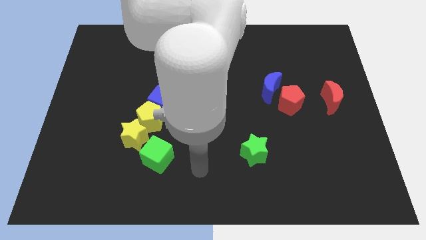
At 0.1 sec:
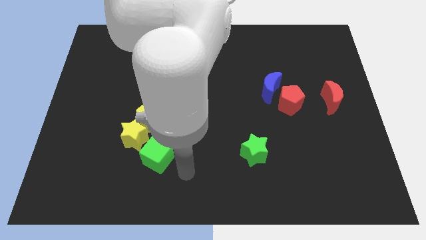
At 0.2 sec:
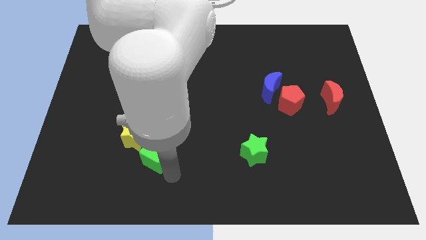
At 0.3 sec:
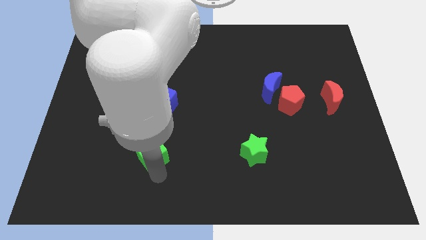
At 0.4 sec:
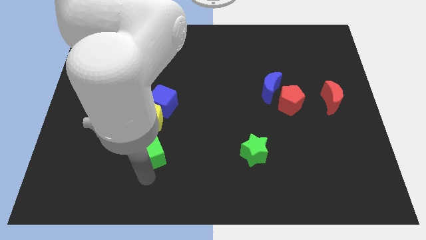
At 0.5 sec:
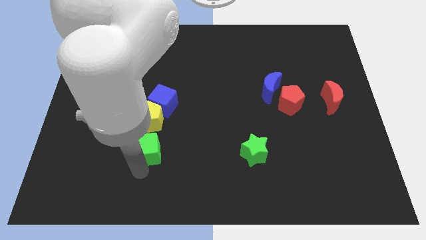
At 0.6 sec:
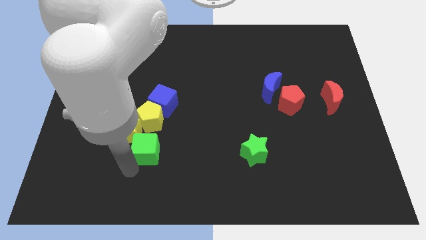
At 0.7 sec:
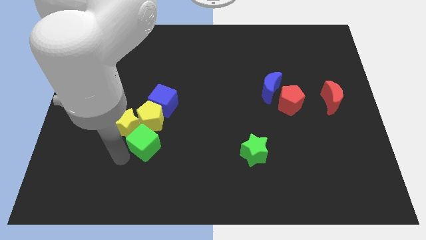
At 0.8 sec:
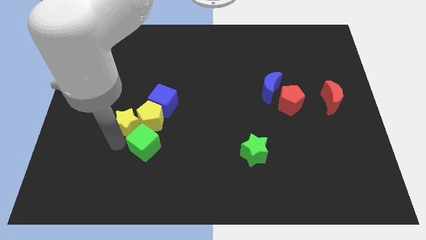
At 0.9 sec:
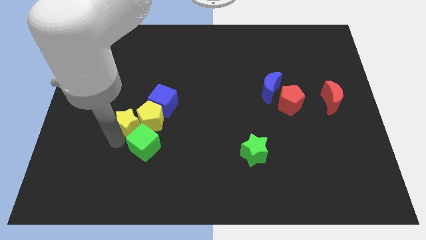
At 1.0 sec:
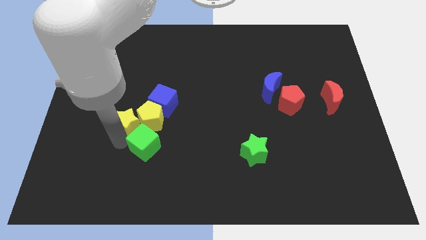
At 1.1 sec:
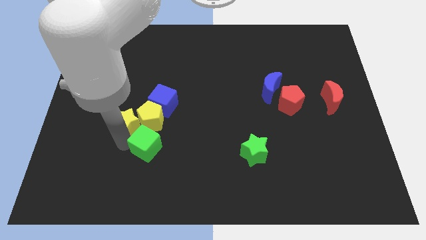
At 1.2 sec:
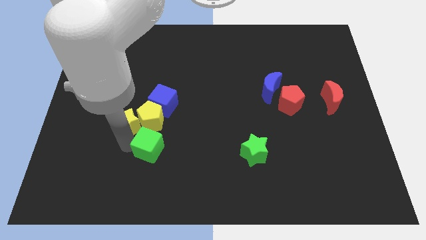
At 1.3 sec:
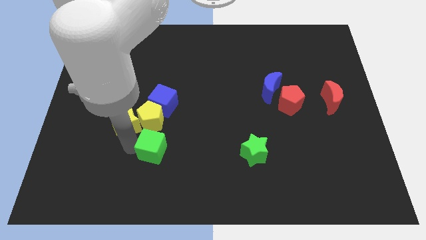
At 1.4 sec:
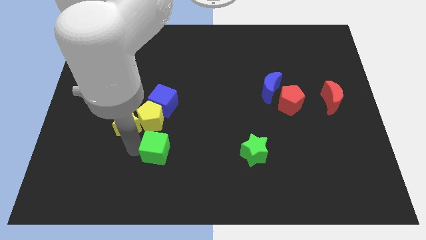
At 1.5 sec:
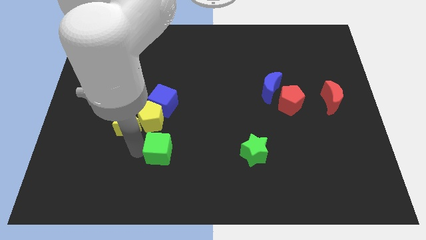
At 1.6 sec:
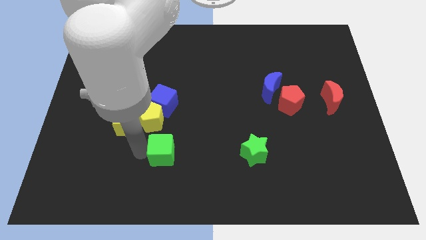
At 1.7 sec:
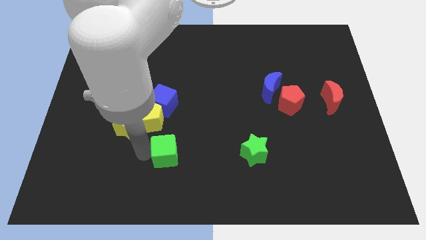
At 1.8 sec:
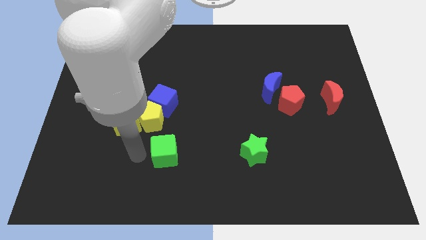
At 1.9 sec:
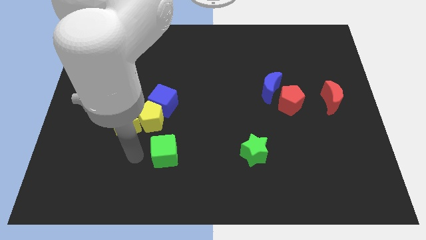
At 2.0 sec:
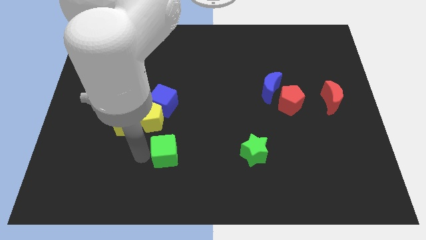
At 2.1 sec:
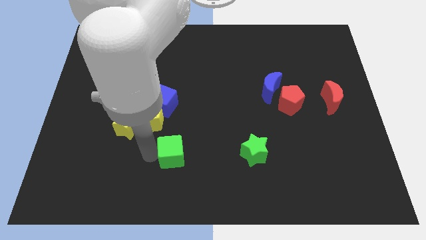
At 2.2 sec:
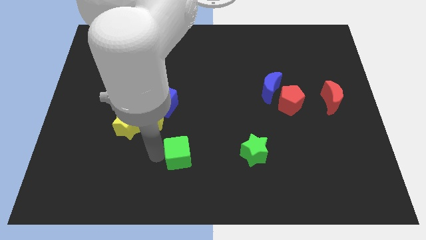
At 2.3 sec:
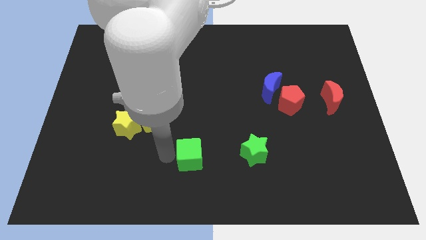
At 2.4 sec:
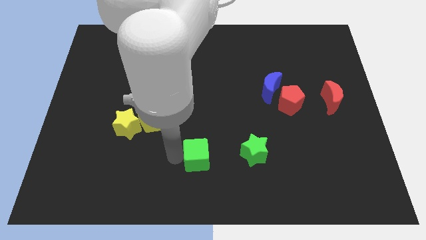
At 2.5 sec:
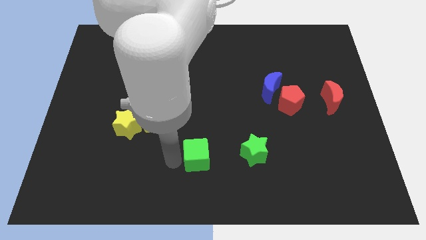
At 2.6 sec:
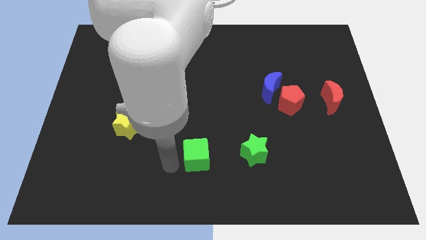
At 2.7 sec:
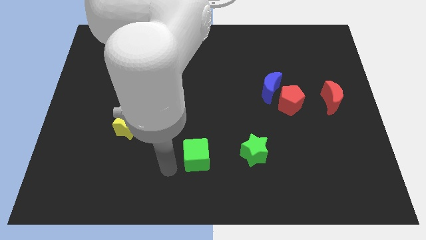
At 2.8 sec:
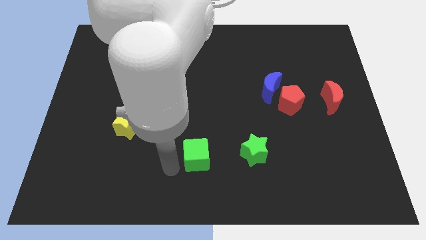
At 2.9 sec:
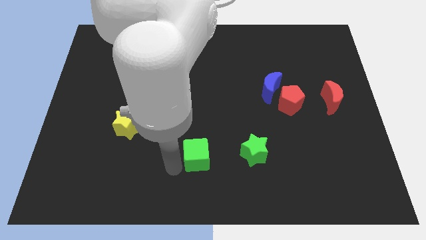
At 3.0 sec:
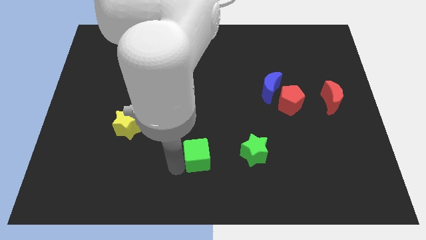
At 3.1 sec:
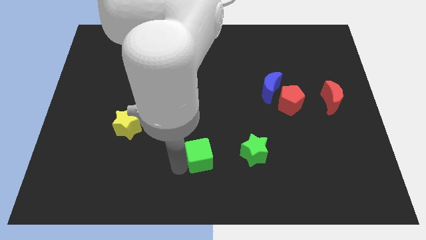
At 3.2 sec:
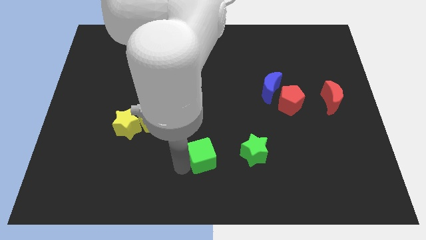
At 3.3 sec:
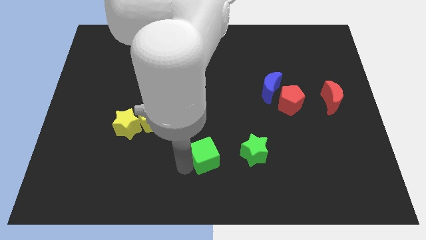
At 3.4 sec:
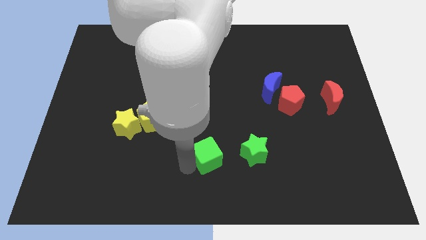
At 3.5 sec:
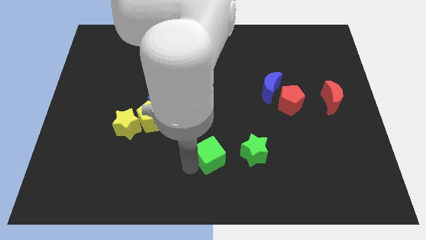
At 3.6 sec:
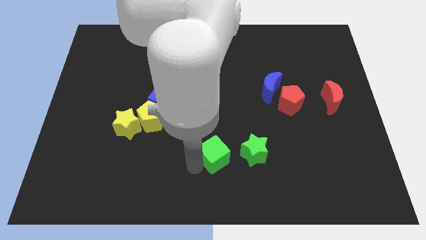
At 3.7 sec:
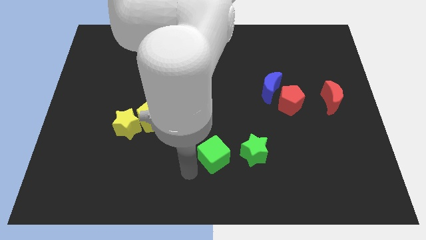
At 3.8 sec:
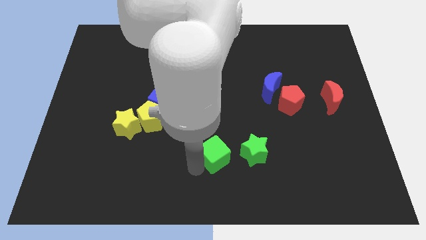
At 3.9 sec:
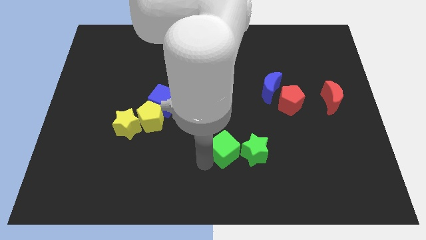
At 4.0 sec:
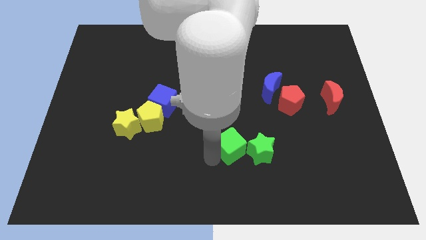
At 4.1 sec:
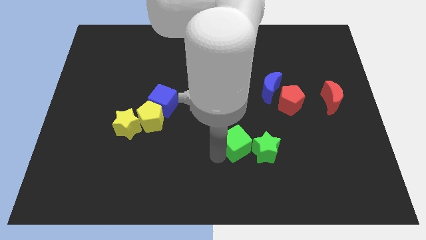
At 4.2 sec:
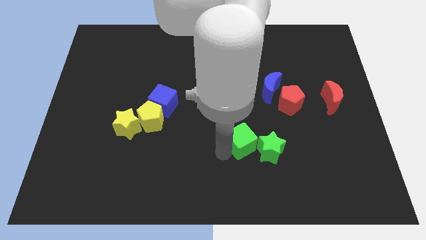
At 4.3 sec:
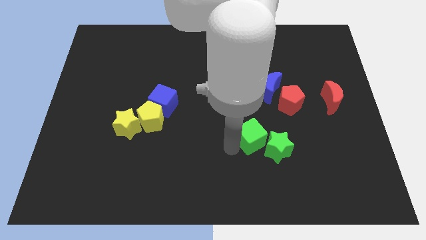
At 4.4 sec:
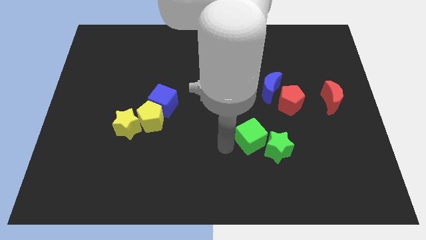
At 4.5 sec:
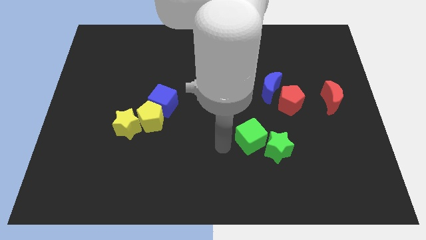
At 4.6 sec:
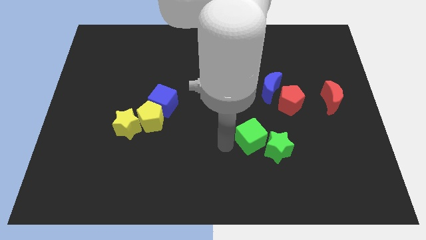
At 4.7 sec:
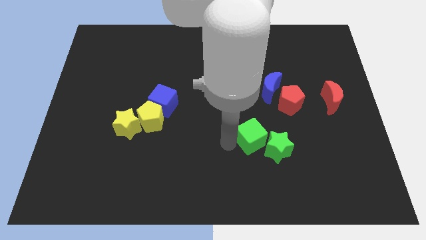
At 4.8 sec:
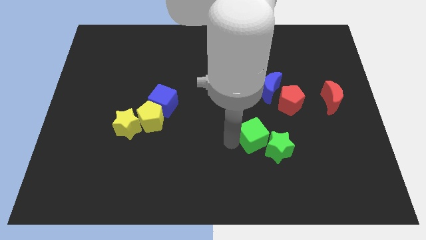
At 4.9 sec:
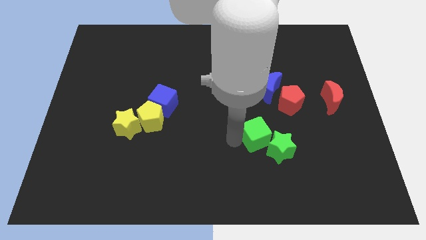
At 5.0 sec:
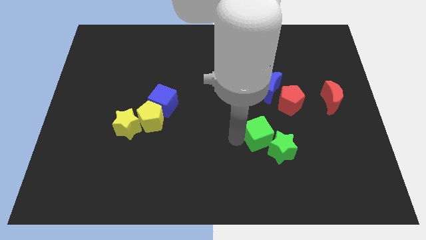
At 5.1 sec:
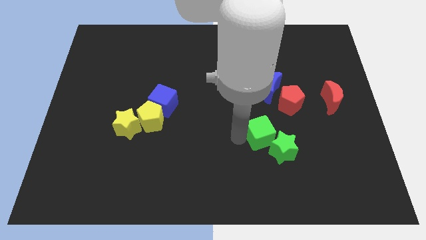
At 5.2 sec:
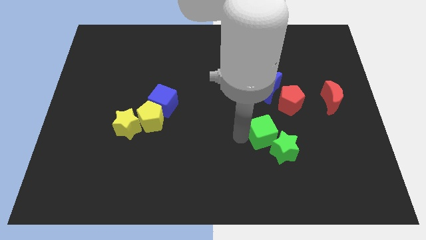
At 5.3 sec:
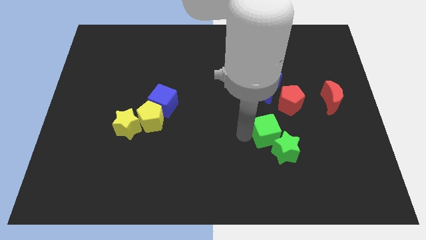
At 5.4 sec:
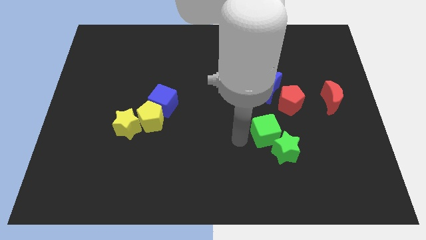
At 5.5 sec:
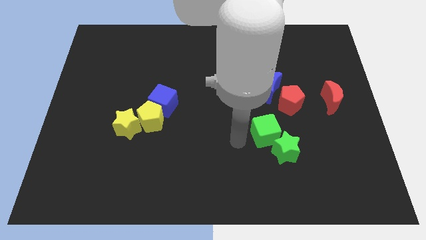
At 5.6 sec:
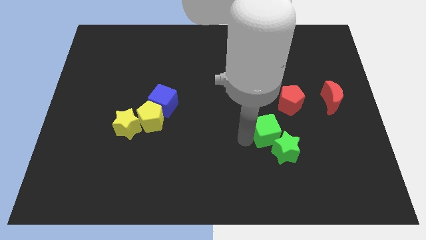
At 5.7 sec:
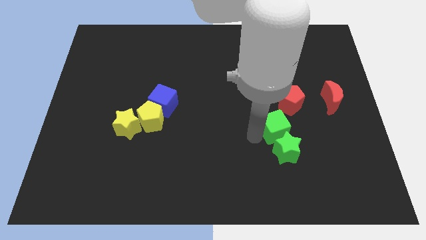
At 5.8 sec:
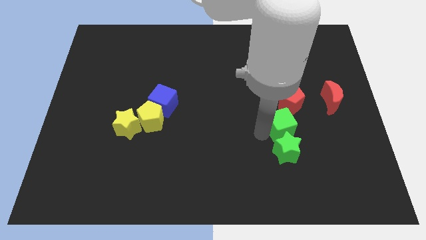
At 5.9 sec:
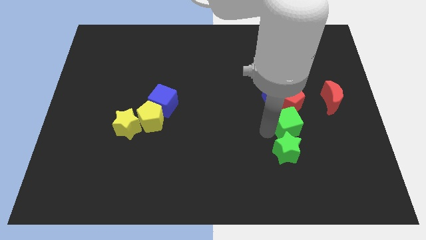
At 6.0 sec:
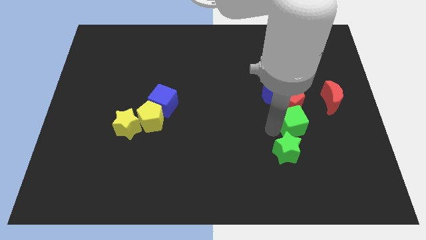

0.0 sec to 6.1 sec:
push the green cube to the bottom left of the red moon
